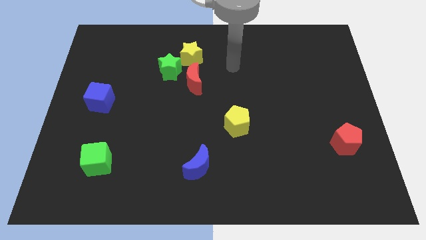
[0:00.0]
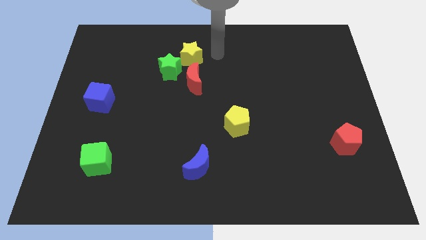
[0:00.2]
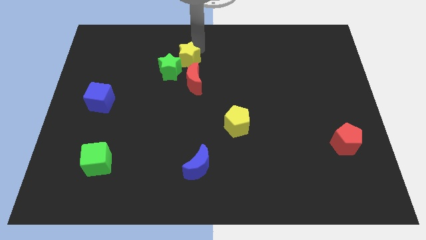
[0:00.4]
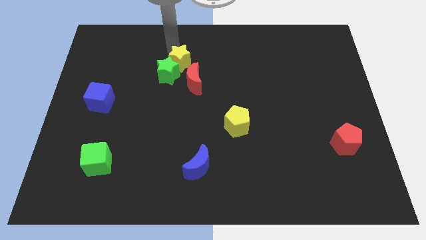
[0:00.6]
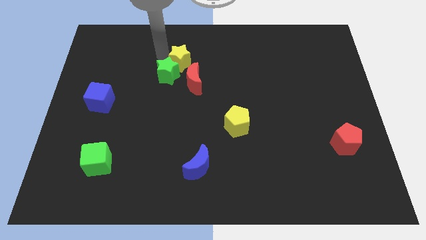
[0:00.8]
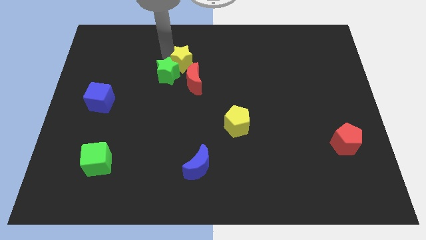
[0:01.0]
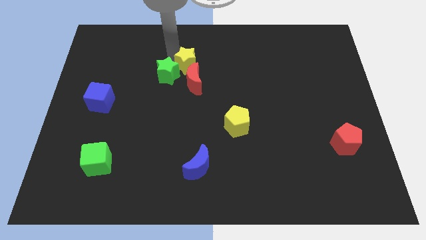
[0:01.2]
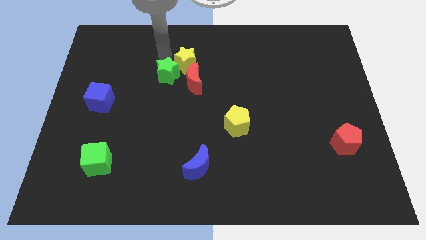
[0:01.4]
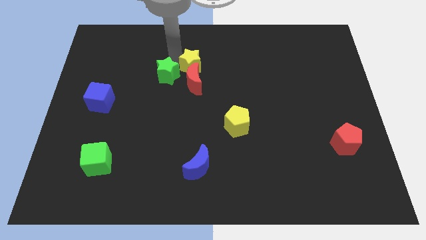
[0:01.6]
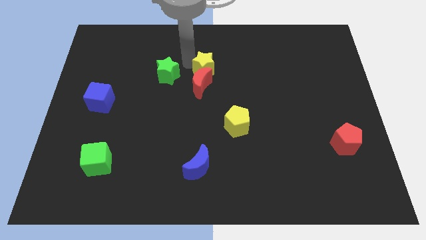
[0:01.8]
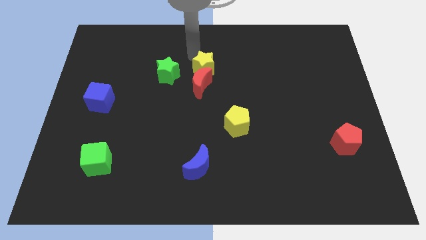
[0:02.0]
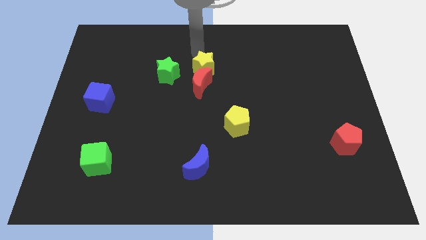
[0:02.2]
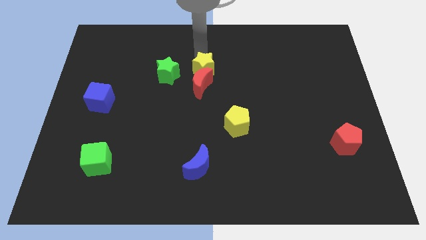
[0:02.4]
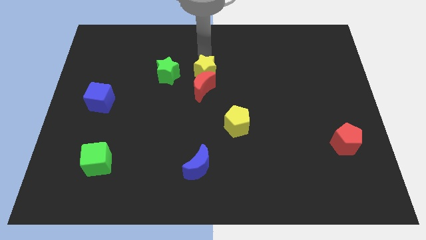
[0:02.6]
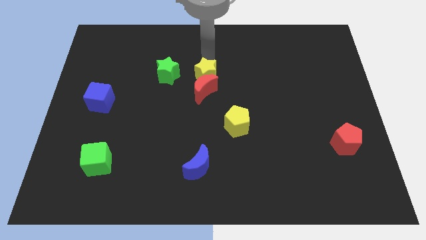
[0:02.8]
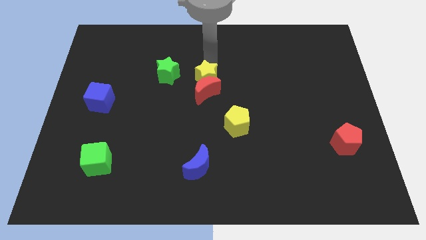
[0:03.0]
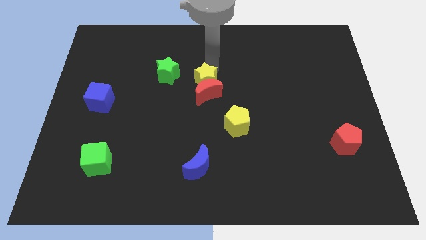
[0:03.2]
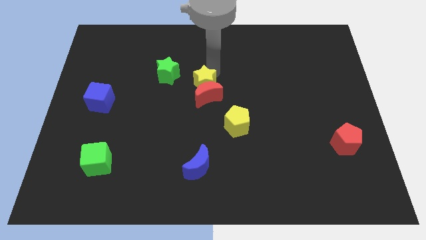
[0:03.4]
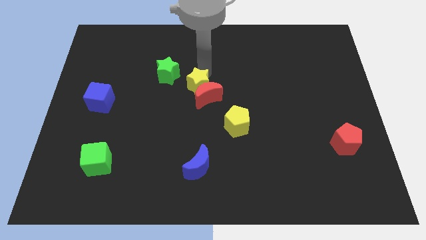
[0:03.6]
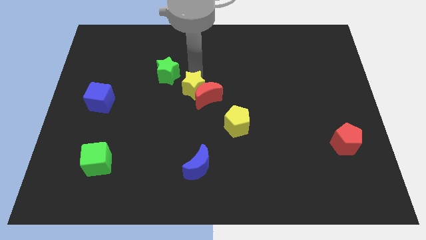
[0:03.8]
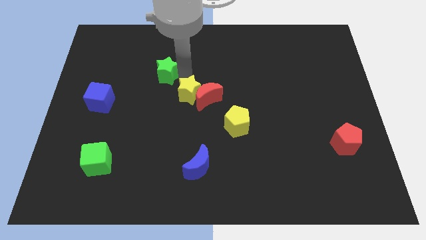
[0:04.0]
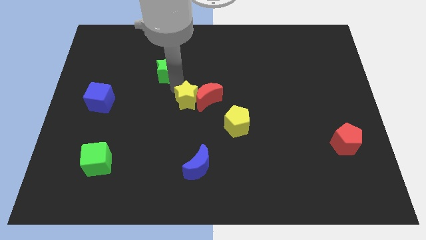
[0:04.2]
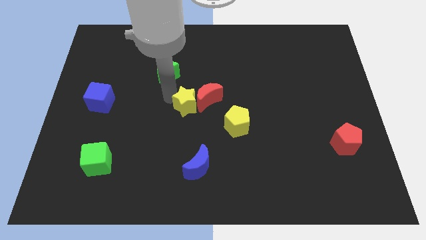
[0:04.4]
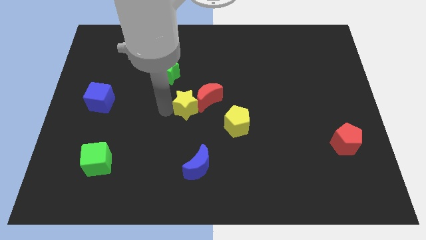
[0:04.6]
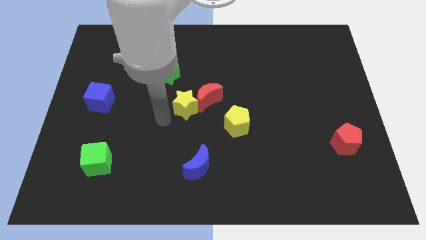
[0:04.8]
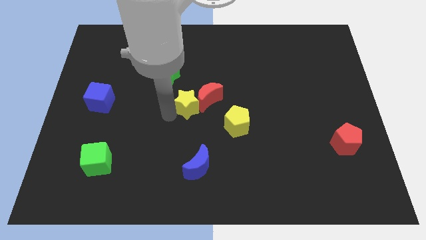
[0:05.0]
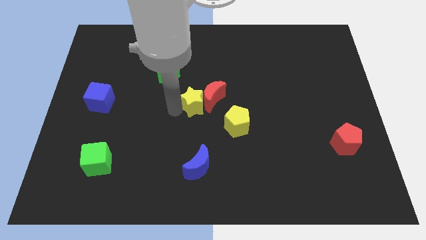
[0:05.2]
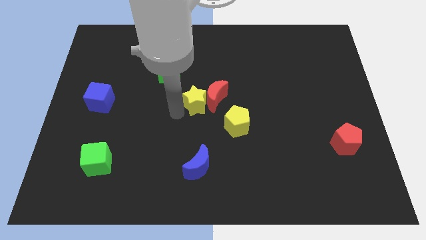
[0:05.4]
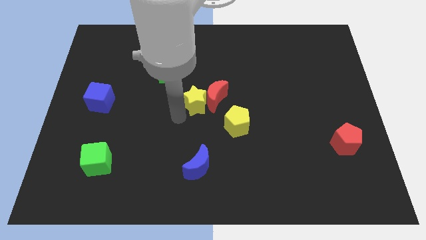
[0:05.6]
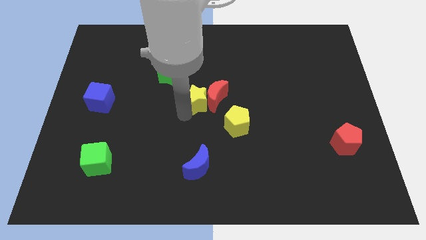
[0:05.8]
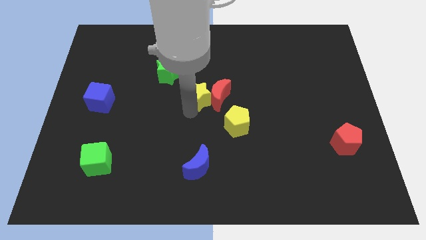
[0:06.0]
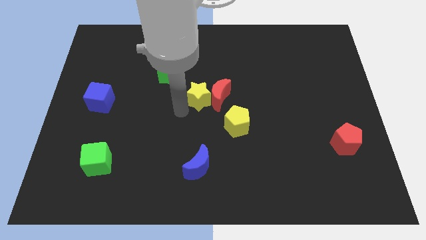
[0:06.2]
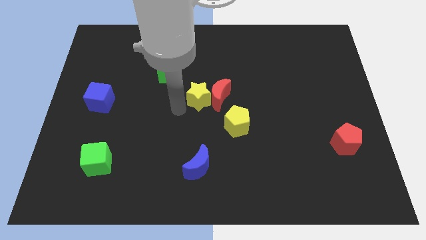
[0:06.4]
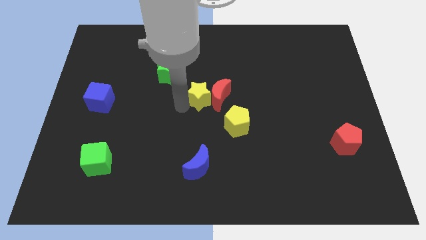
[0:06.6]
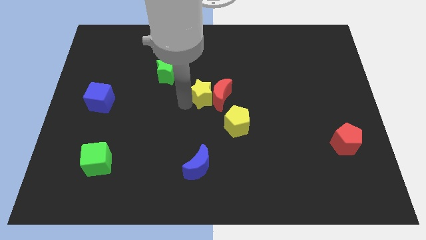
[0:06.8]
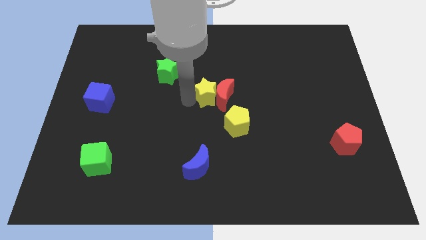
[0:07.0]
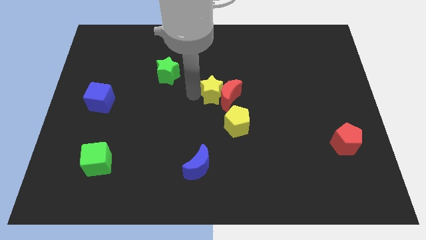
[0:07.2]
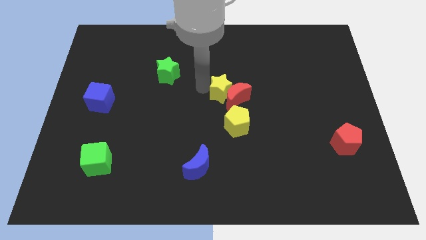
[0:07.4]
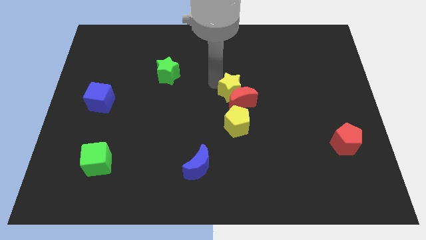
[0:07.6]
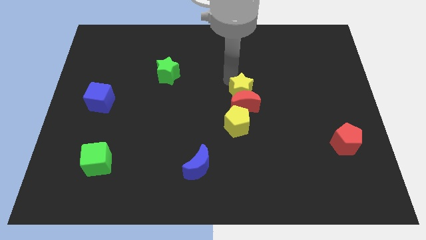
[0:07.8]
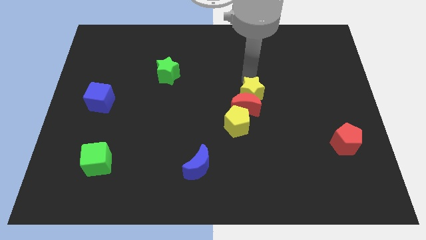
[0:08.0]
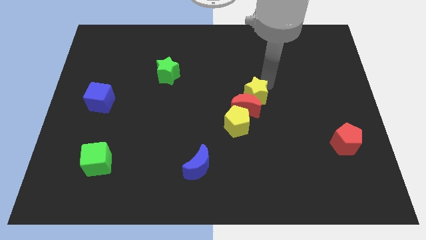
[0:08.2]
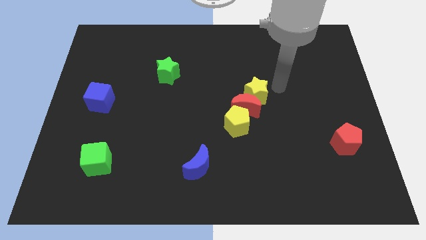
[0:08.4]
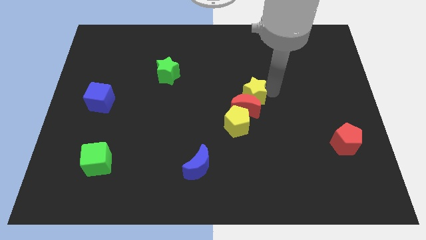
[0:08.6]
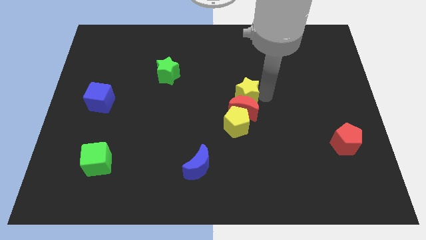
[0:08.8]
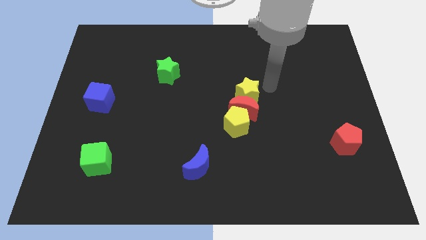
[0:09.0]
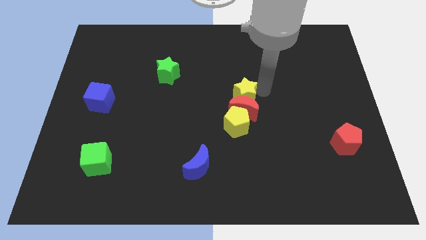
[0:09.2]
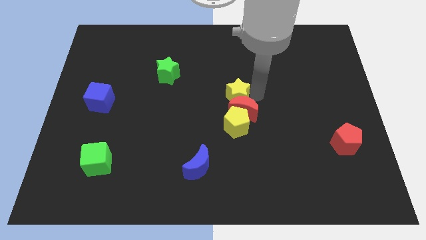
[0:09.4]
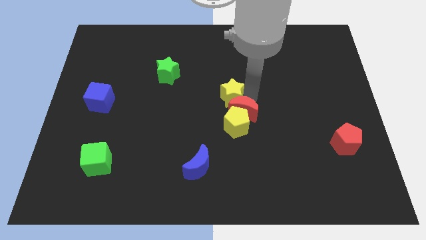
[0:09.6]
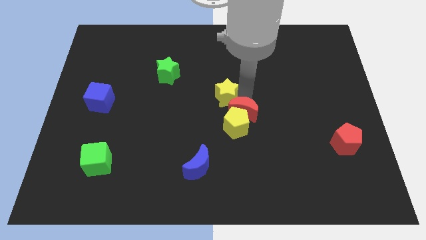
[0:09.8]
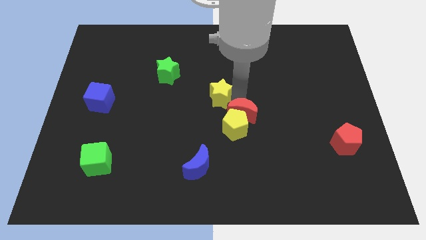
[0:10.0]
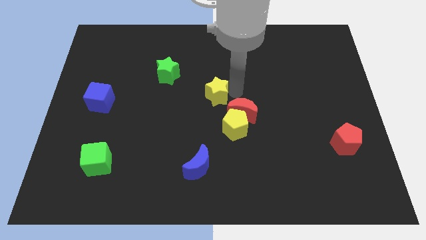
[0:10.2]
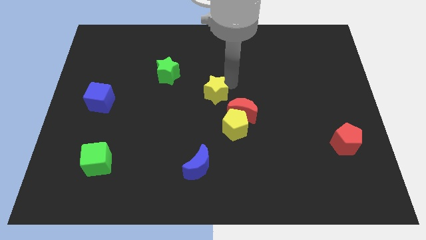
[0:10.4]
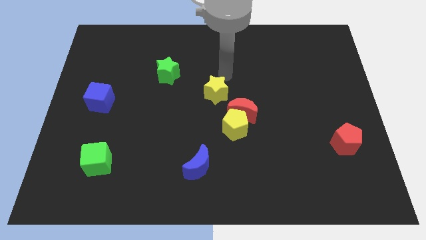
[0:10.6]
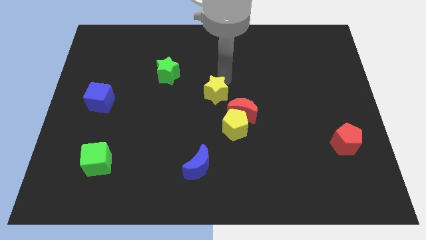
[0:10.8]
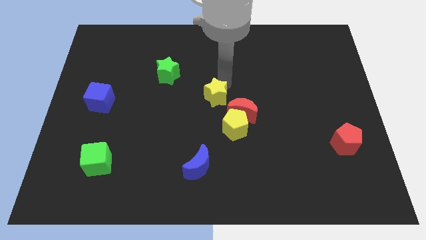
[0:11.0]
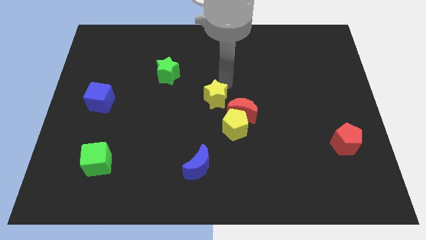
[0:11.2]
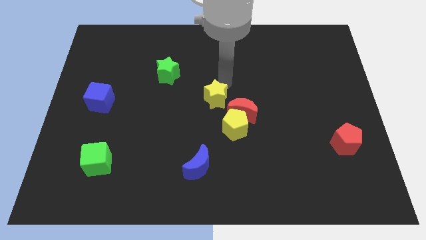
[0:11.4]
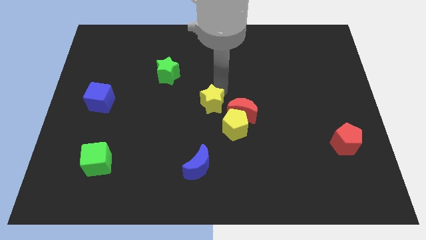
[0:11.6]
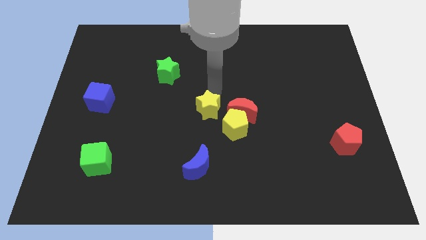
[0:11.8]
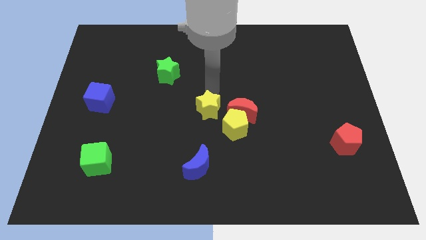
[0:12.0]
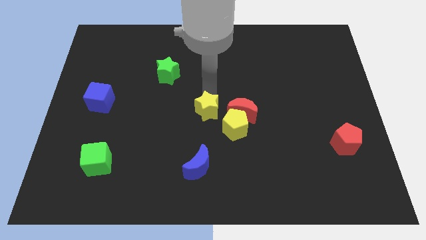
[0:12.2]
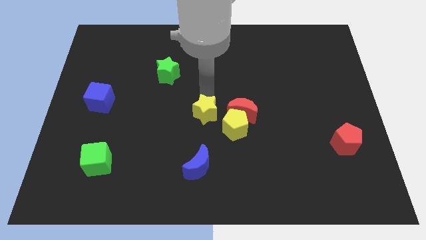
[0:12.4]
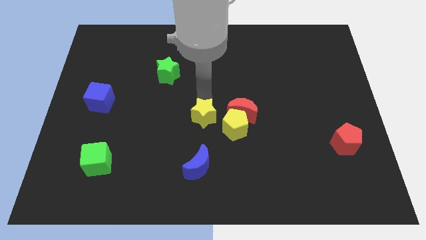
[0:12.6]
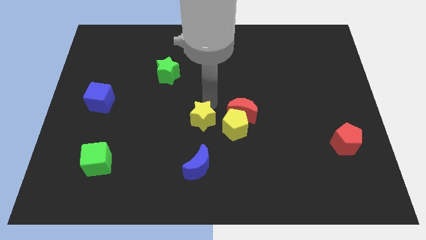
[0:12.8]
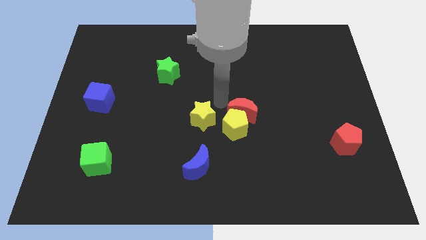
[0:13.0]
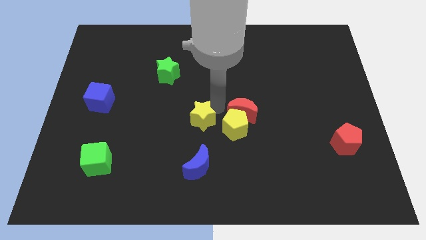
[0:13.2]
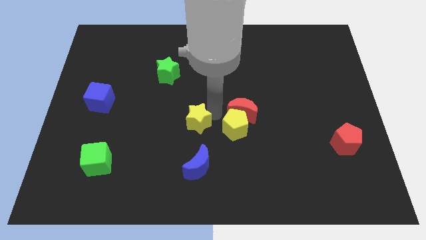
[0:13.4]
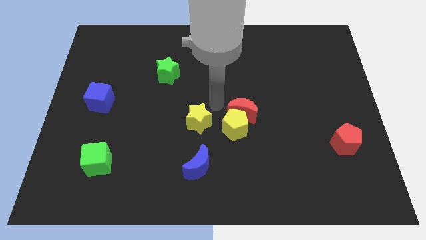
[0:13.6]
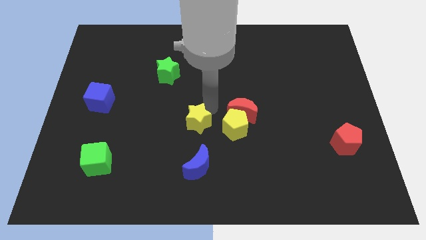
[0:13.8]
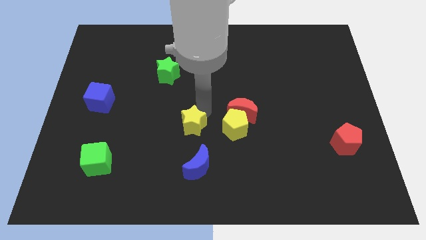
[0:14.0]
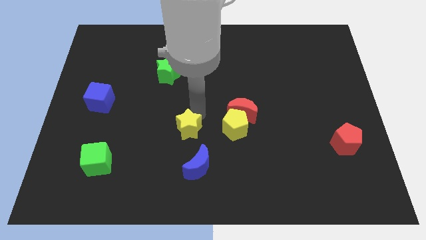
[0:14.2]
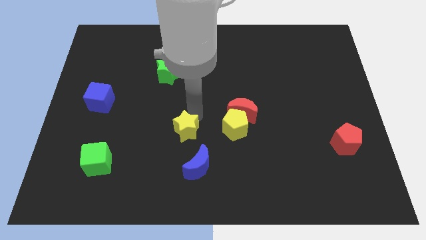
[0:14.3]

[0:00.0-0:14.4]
move the yellow star diagonally up and to the left of the blue moon
